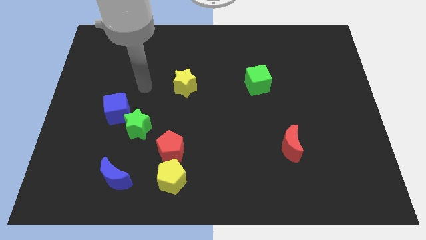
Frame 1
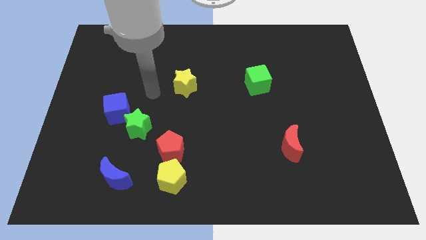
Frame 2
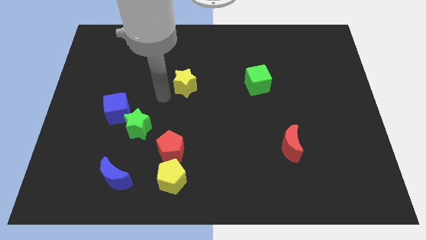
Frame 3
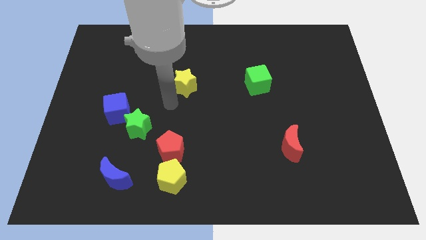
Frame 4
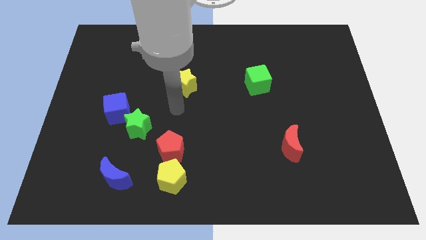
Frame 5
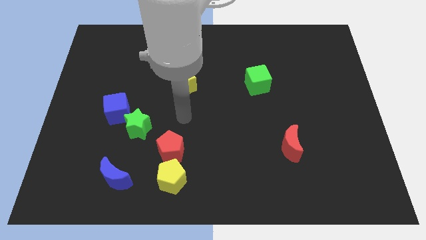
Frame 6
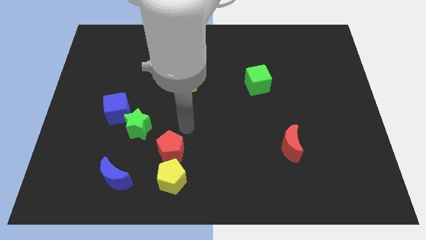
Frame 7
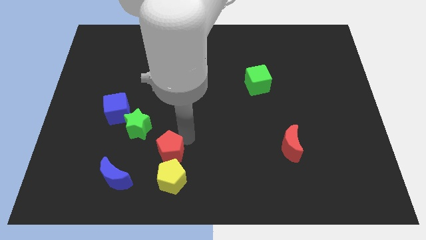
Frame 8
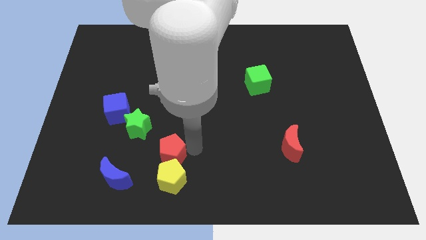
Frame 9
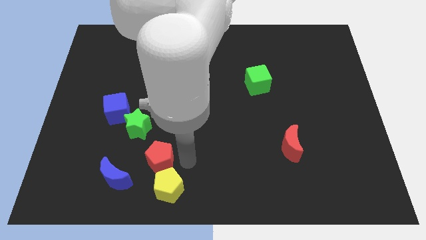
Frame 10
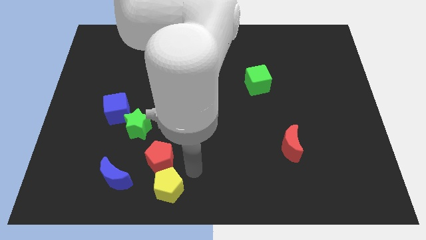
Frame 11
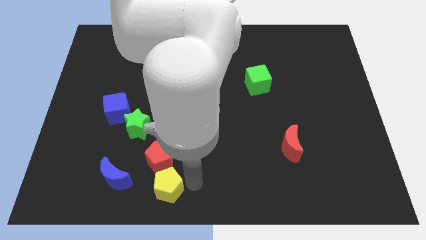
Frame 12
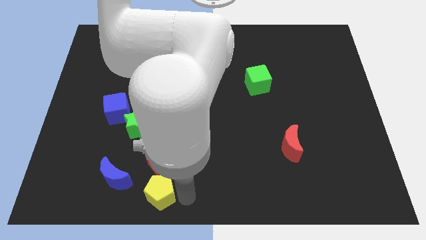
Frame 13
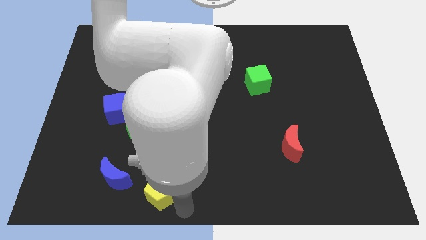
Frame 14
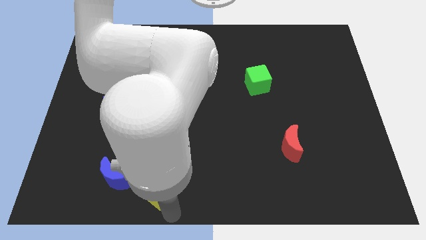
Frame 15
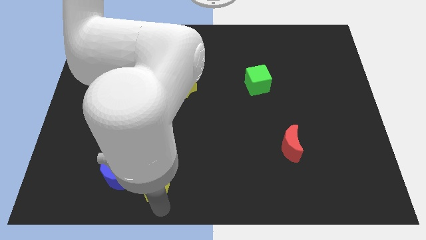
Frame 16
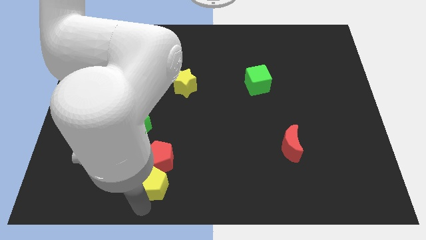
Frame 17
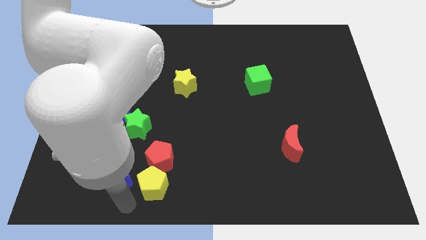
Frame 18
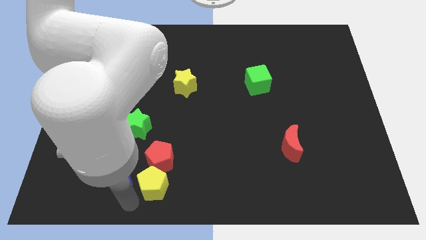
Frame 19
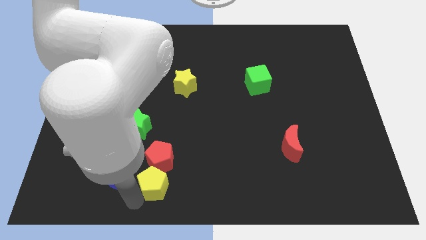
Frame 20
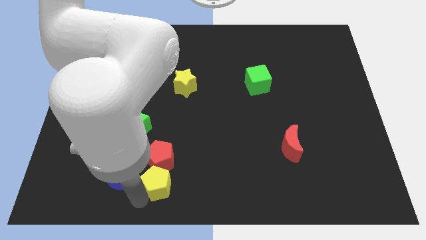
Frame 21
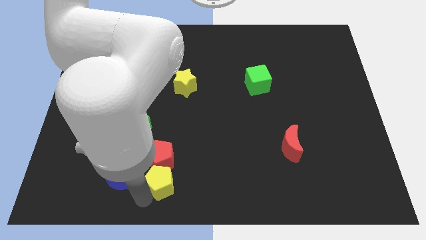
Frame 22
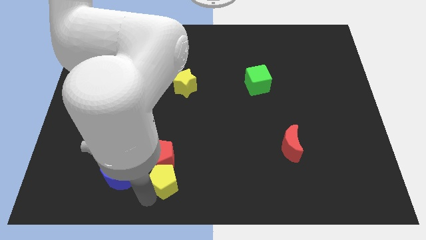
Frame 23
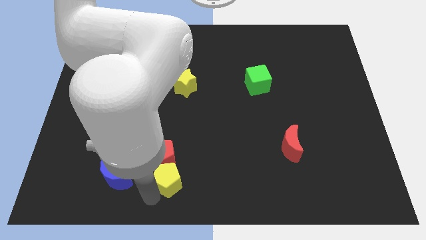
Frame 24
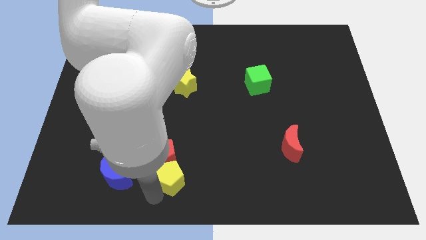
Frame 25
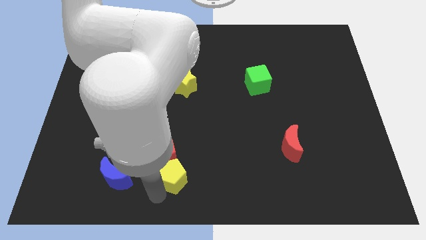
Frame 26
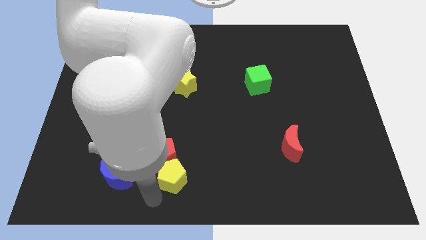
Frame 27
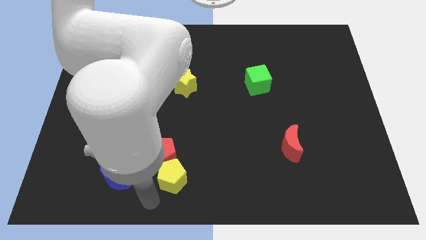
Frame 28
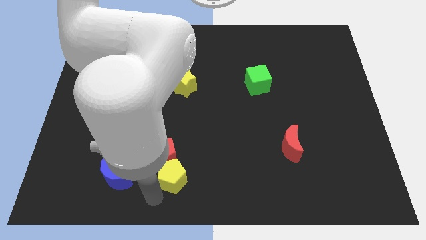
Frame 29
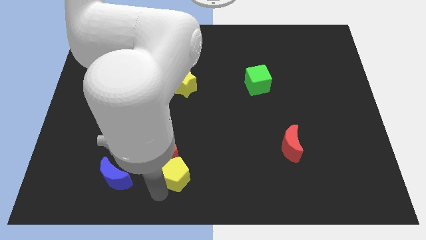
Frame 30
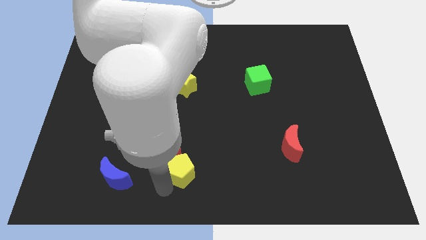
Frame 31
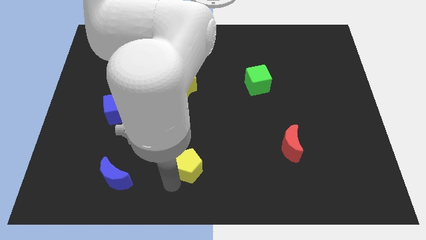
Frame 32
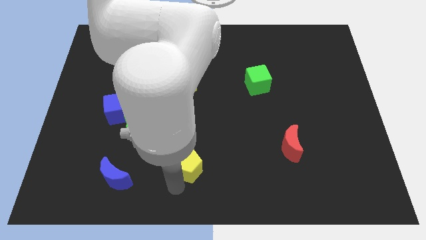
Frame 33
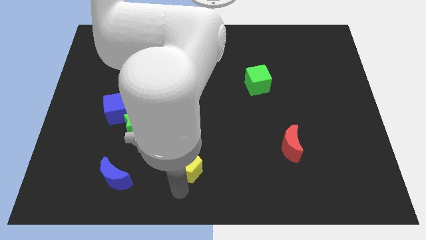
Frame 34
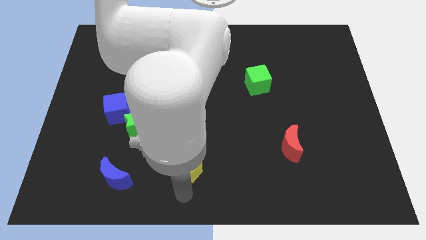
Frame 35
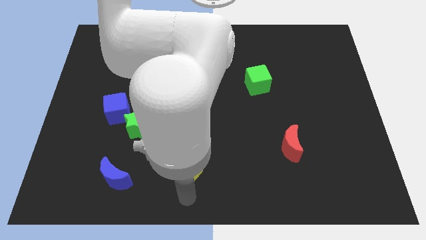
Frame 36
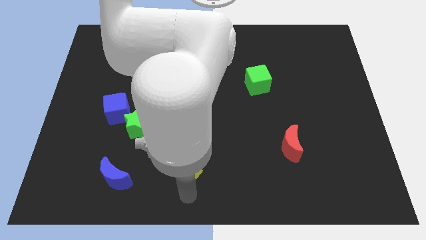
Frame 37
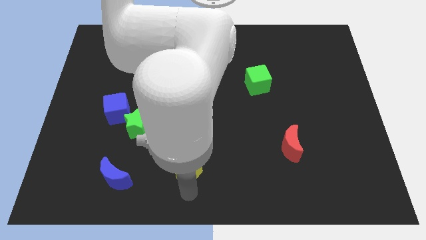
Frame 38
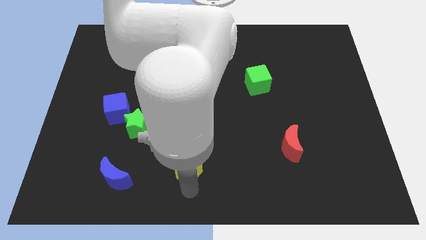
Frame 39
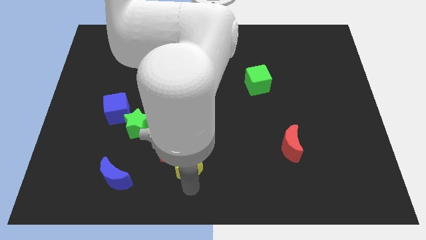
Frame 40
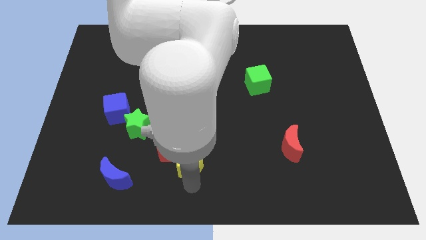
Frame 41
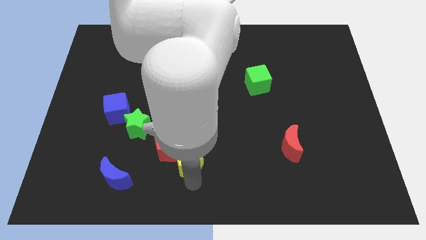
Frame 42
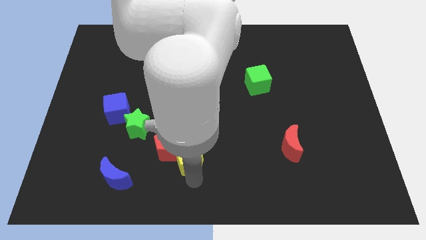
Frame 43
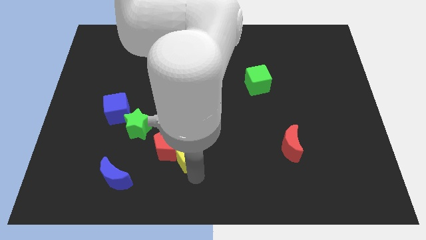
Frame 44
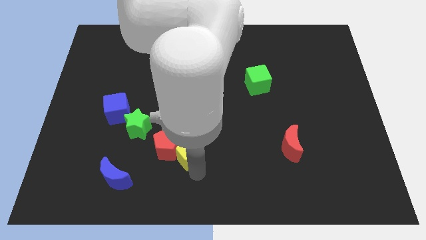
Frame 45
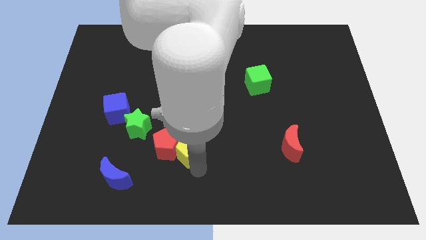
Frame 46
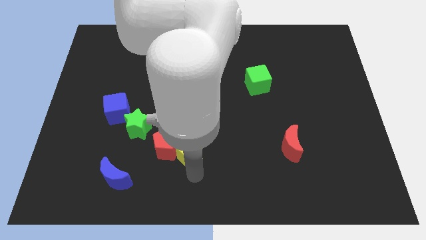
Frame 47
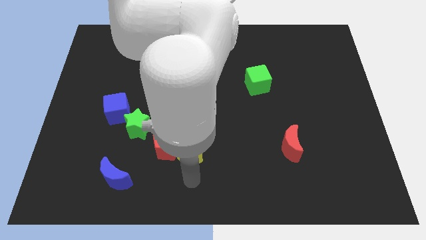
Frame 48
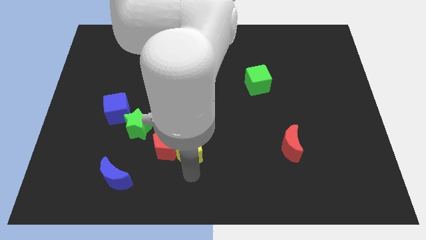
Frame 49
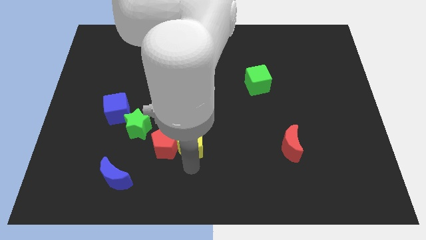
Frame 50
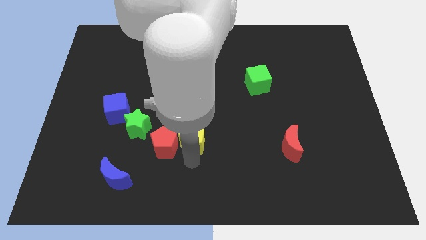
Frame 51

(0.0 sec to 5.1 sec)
put the yellow pentagon to the middle

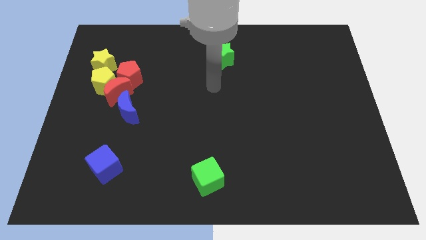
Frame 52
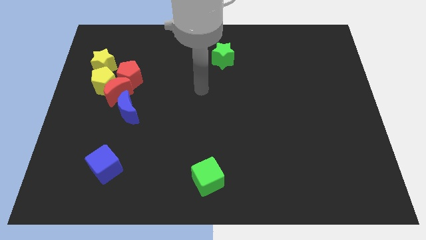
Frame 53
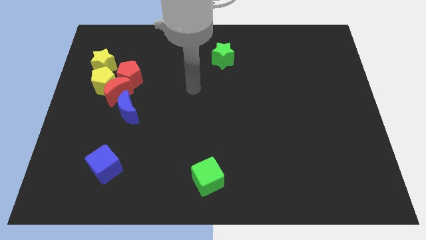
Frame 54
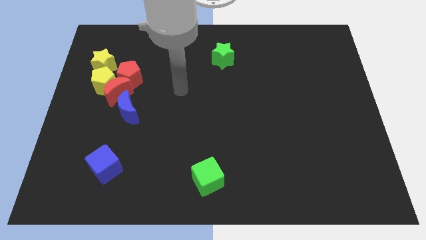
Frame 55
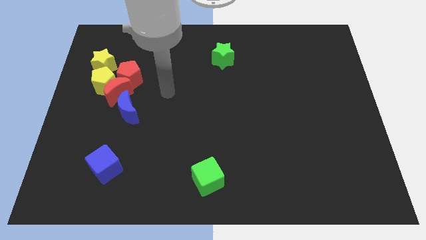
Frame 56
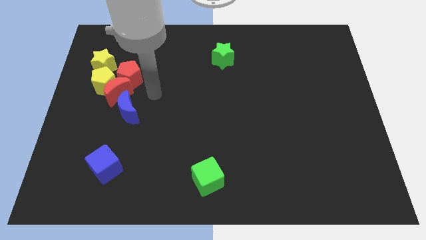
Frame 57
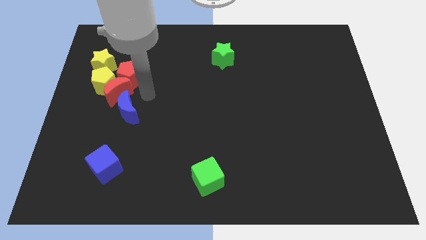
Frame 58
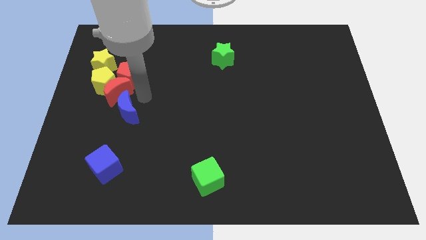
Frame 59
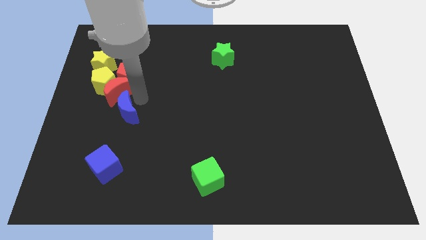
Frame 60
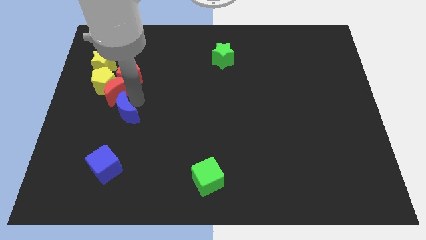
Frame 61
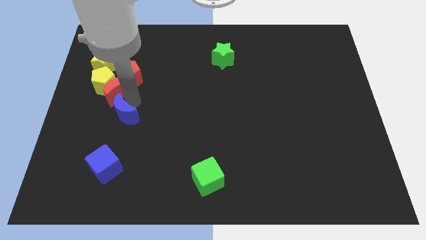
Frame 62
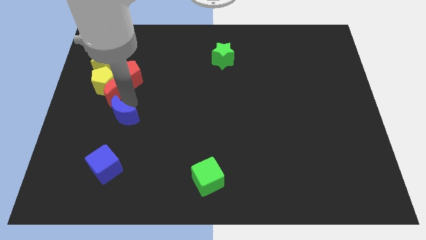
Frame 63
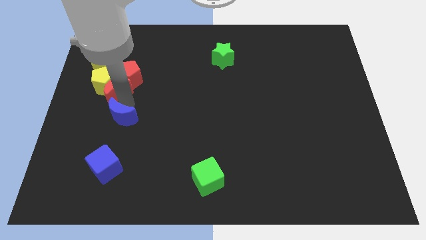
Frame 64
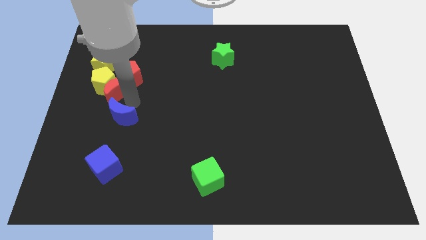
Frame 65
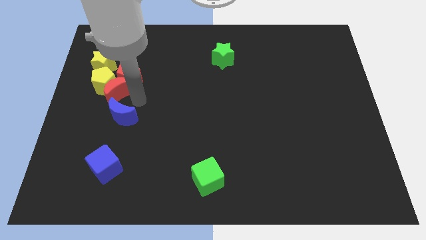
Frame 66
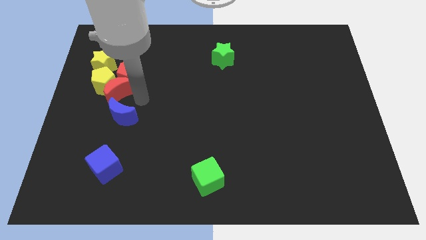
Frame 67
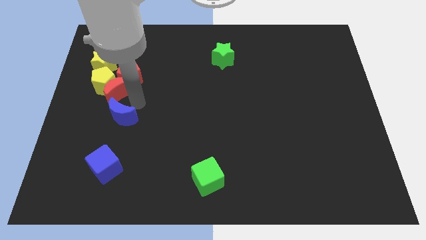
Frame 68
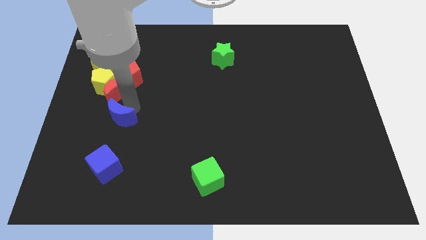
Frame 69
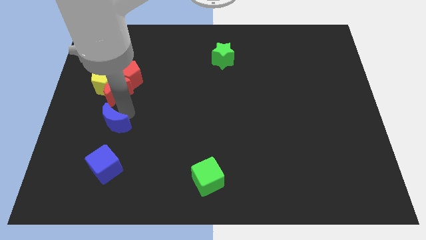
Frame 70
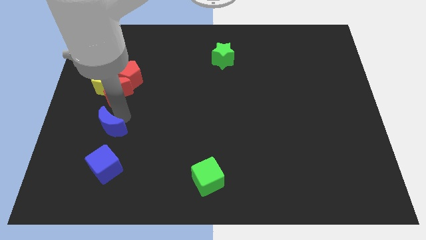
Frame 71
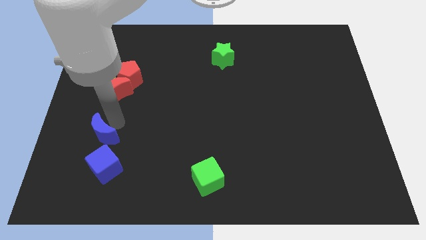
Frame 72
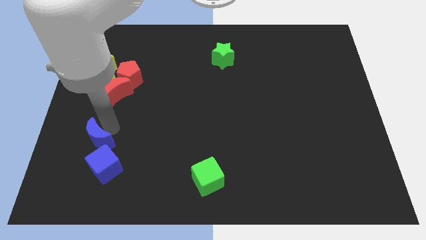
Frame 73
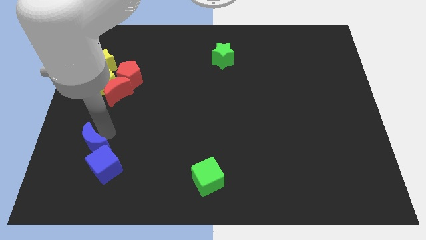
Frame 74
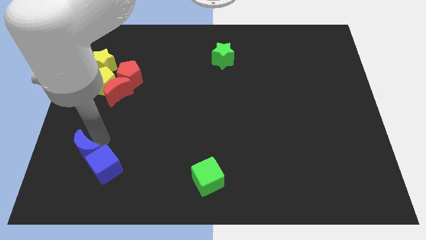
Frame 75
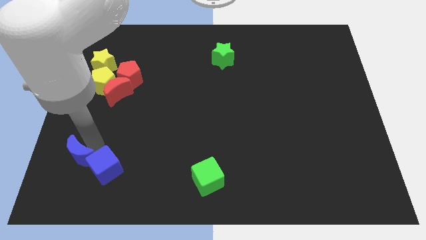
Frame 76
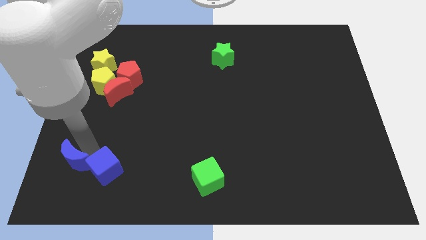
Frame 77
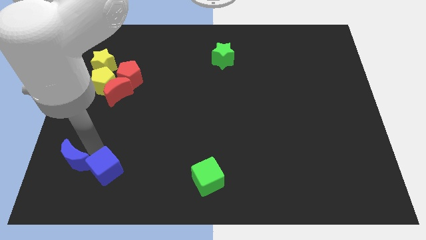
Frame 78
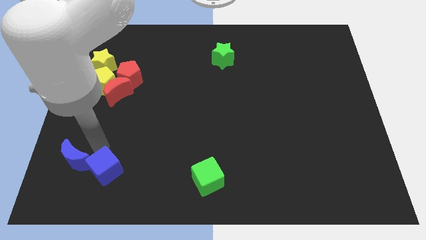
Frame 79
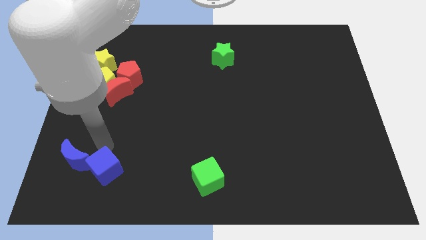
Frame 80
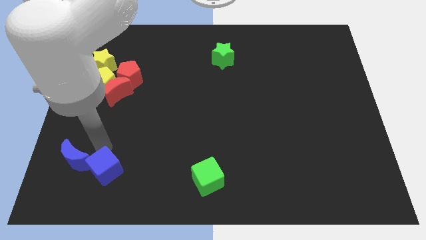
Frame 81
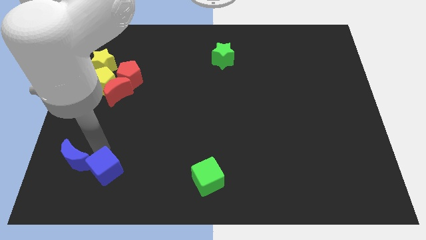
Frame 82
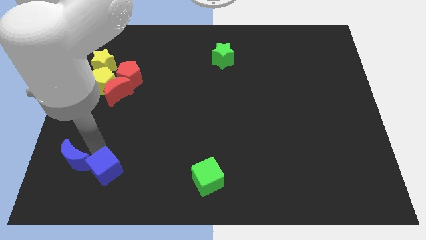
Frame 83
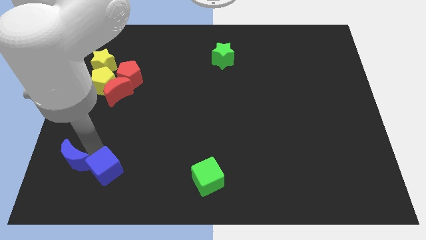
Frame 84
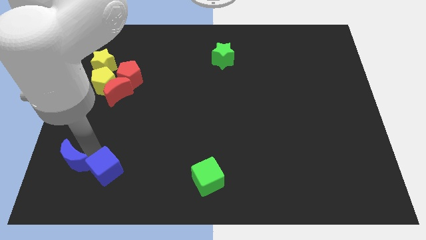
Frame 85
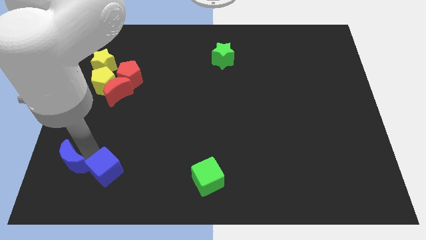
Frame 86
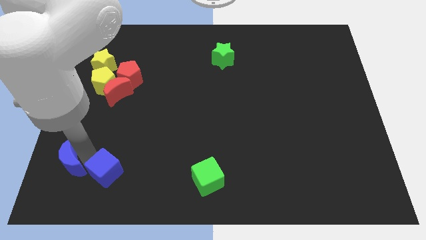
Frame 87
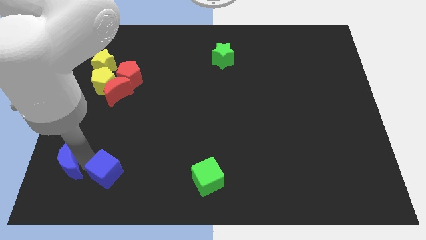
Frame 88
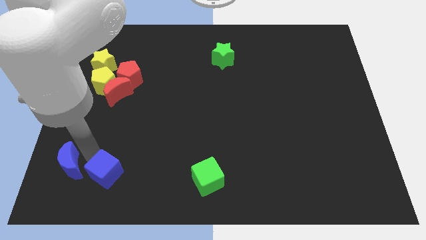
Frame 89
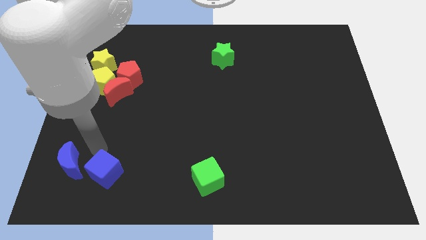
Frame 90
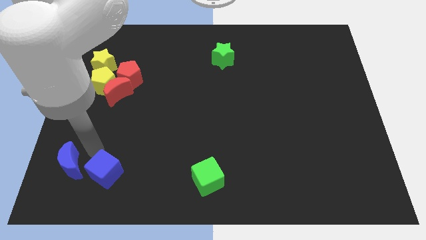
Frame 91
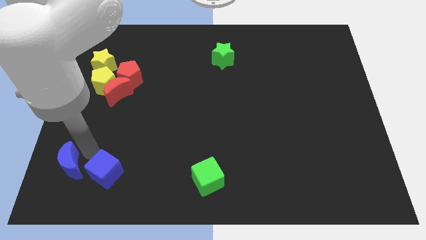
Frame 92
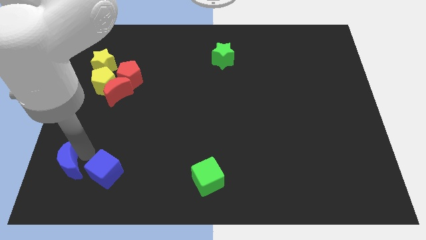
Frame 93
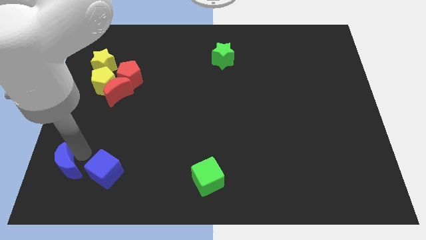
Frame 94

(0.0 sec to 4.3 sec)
put the blue moon to the bottom left corner
